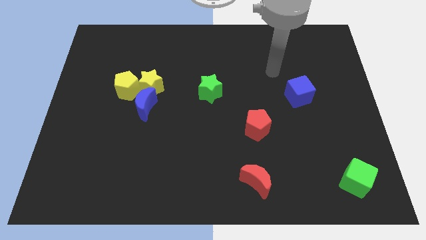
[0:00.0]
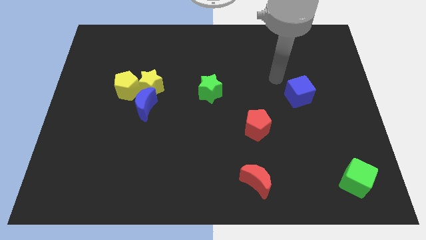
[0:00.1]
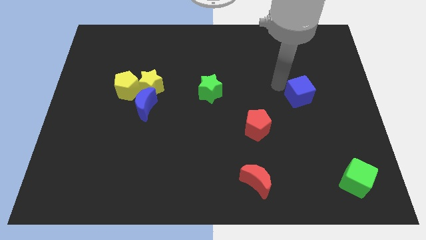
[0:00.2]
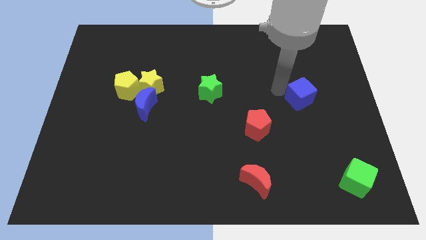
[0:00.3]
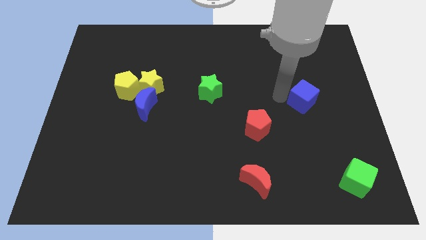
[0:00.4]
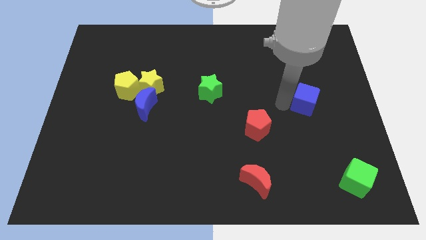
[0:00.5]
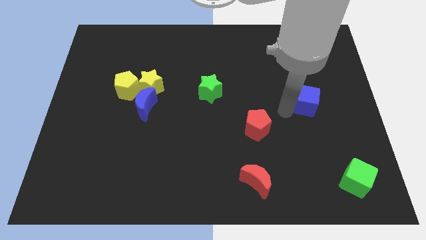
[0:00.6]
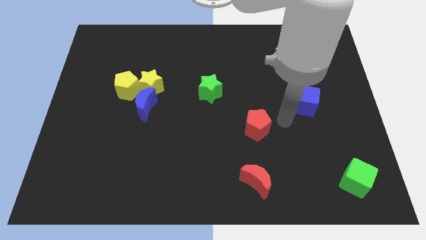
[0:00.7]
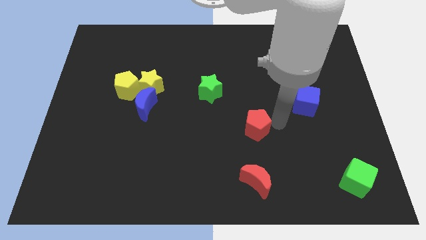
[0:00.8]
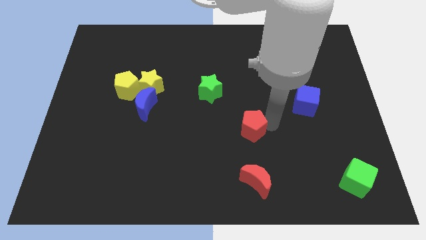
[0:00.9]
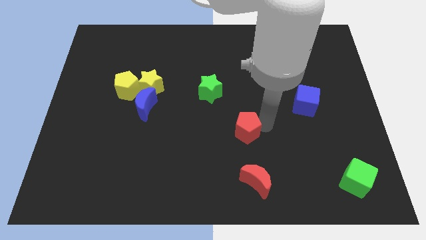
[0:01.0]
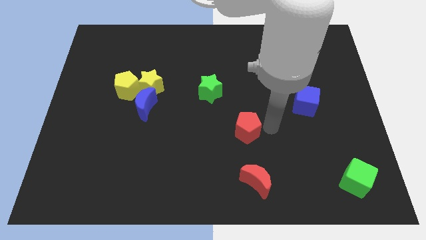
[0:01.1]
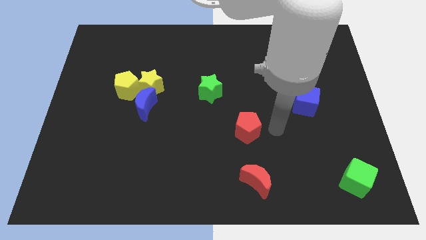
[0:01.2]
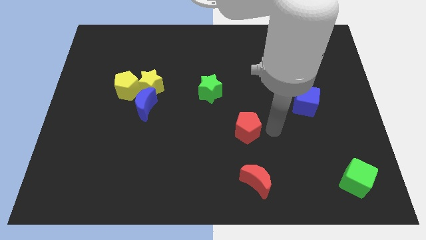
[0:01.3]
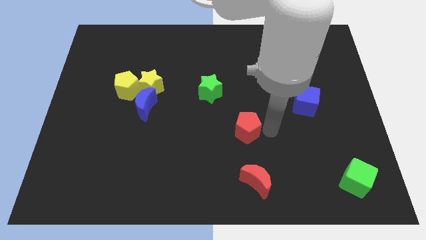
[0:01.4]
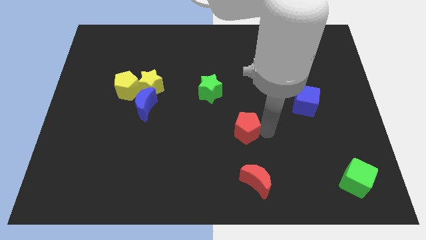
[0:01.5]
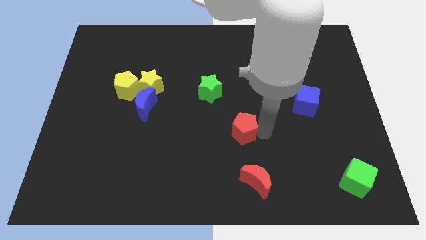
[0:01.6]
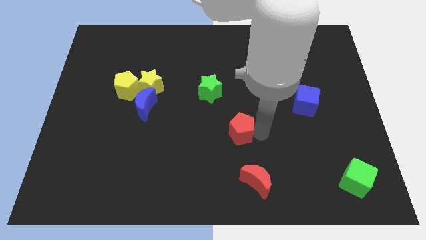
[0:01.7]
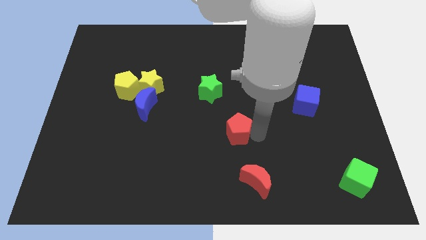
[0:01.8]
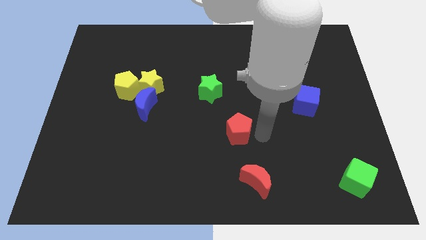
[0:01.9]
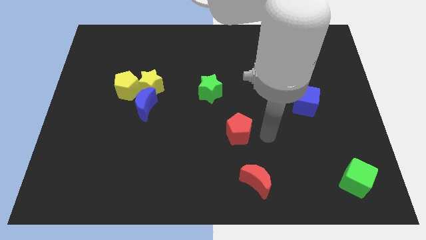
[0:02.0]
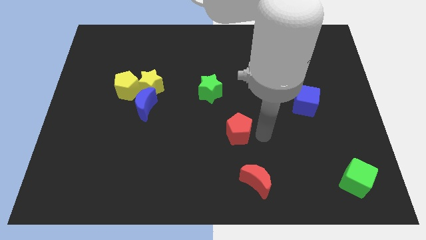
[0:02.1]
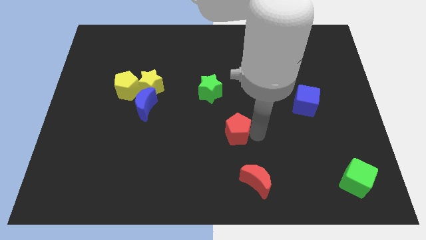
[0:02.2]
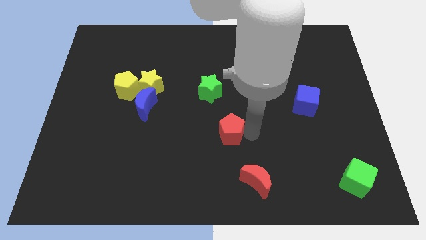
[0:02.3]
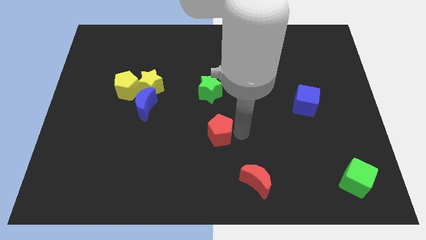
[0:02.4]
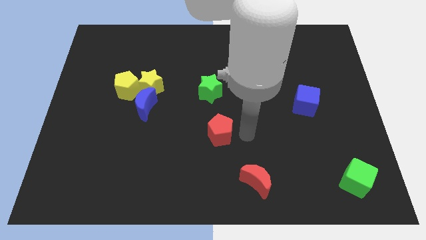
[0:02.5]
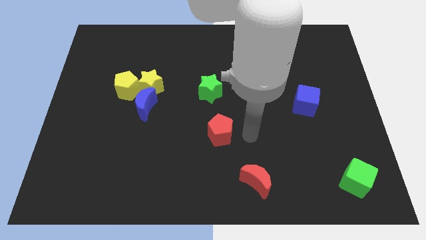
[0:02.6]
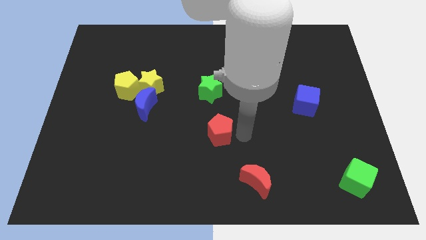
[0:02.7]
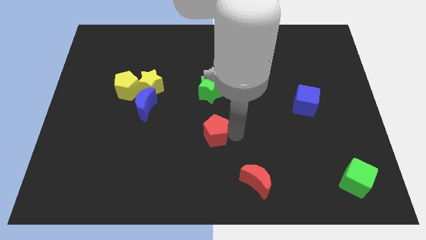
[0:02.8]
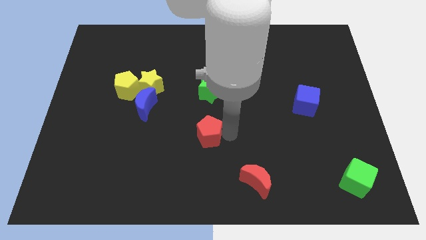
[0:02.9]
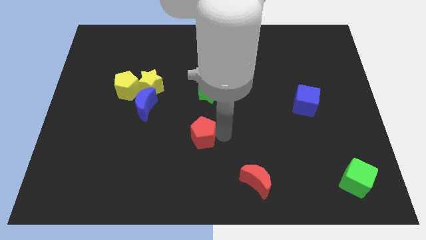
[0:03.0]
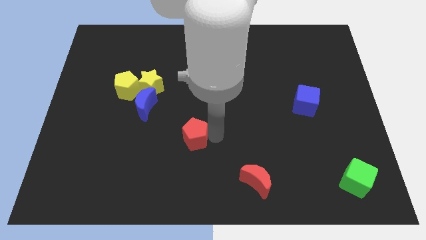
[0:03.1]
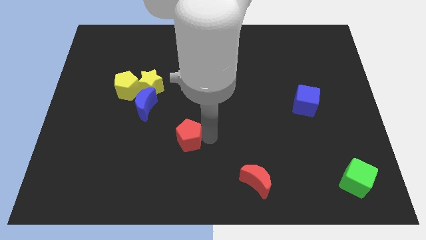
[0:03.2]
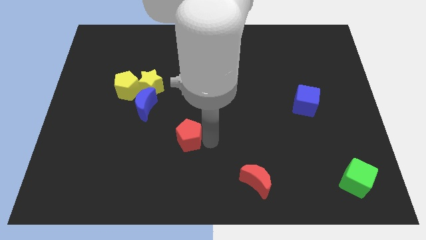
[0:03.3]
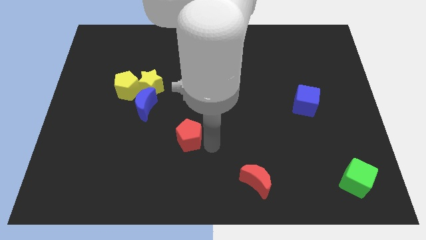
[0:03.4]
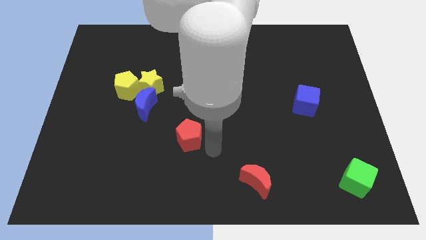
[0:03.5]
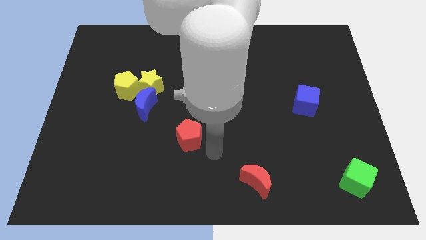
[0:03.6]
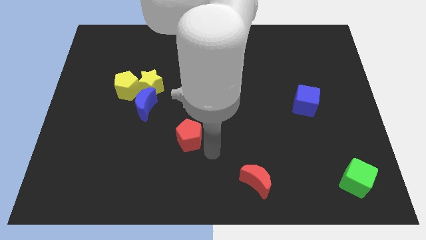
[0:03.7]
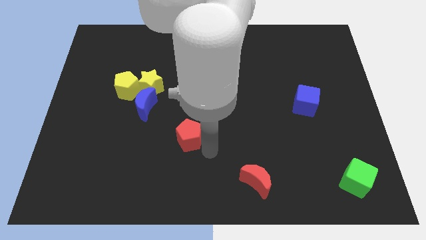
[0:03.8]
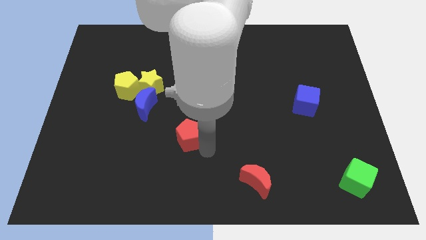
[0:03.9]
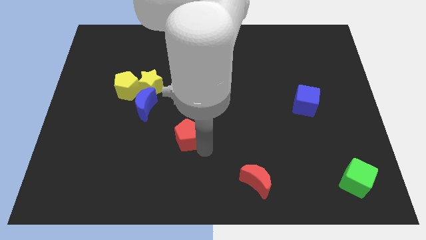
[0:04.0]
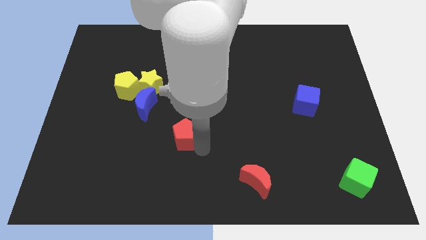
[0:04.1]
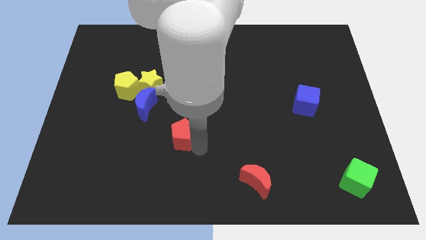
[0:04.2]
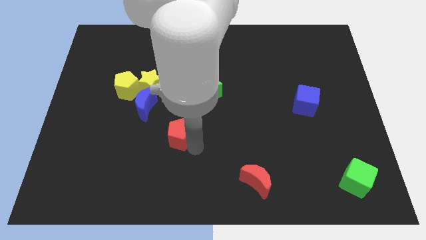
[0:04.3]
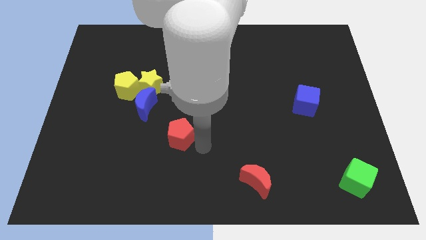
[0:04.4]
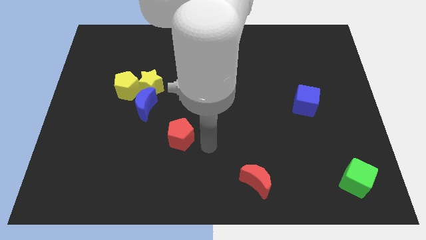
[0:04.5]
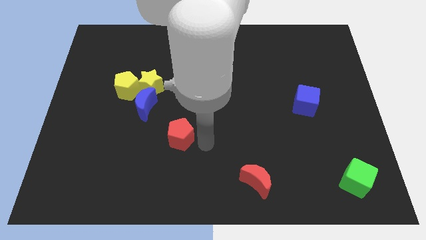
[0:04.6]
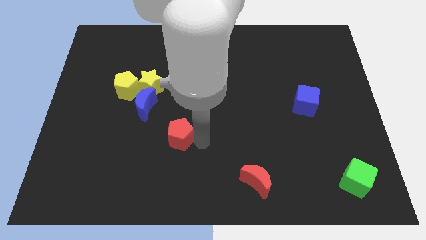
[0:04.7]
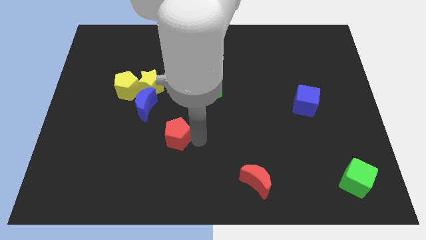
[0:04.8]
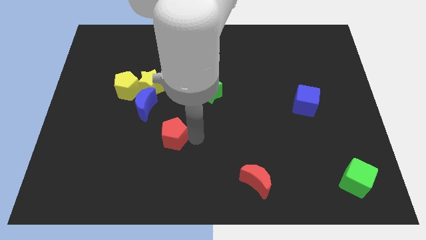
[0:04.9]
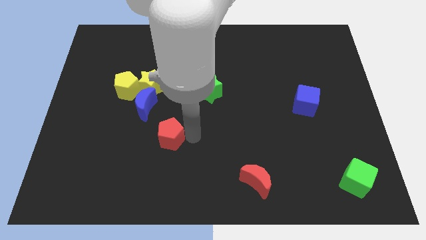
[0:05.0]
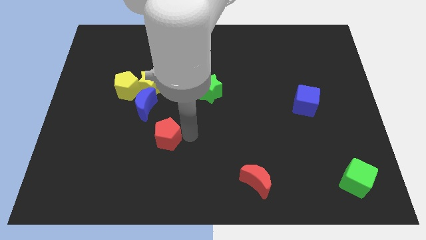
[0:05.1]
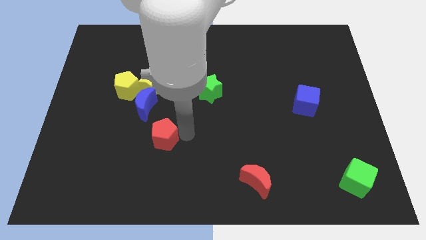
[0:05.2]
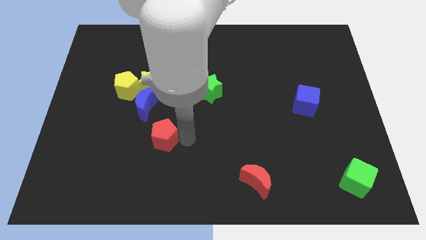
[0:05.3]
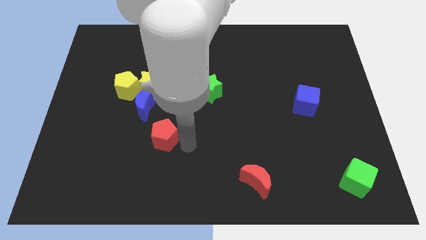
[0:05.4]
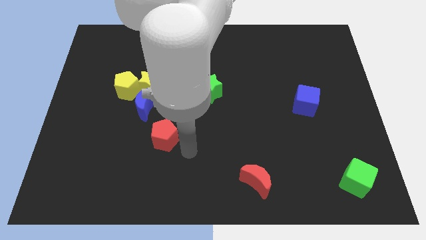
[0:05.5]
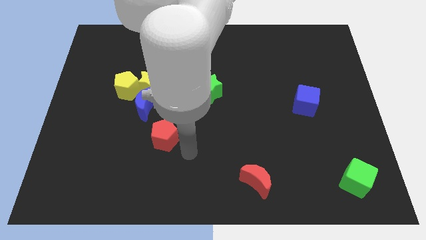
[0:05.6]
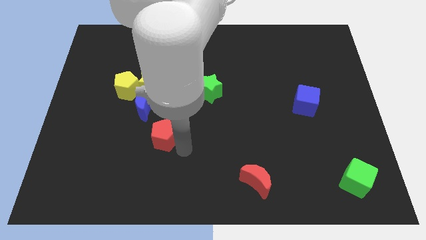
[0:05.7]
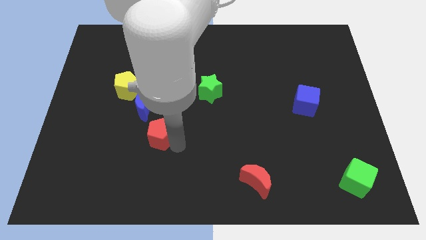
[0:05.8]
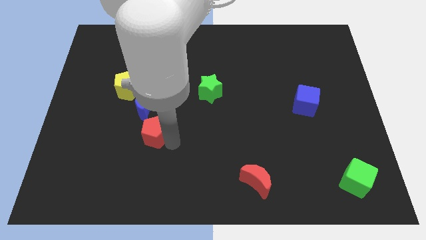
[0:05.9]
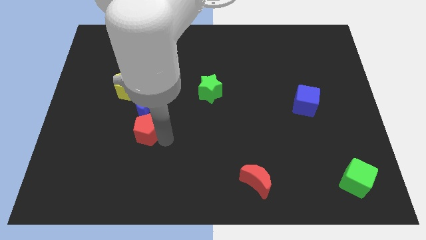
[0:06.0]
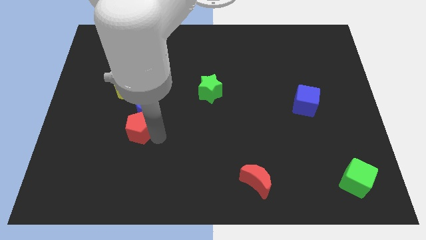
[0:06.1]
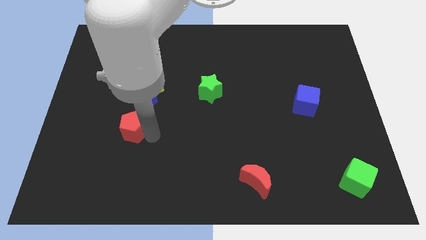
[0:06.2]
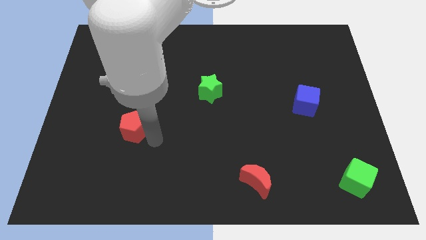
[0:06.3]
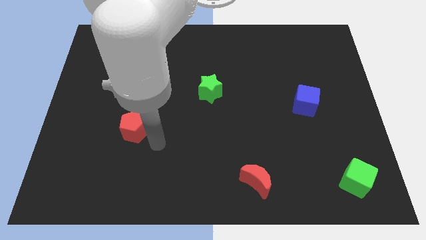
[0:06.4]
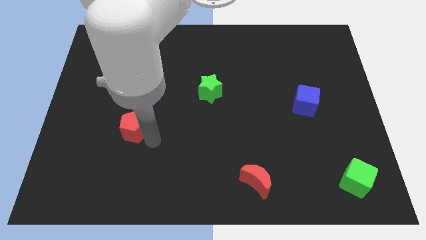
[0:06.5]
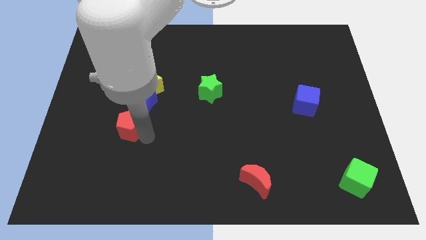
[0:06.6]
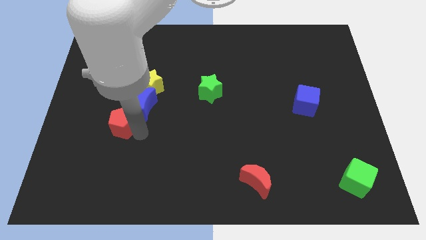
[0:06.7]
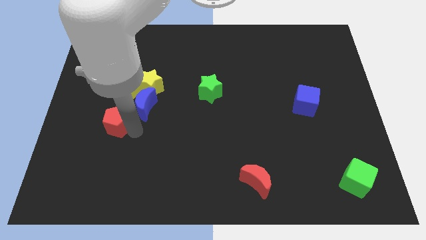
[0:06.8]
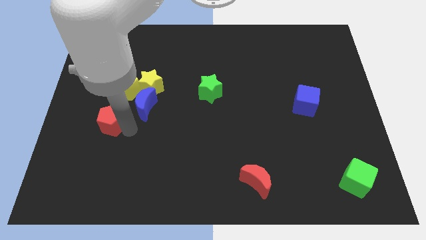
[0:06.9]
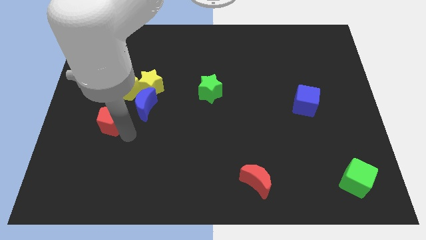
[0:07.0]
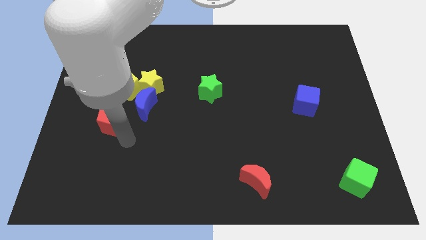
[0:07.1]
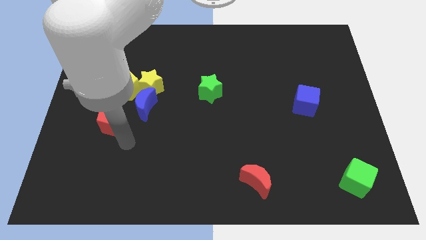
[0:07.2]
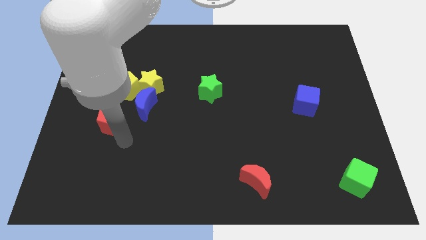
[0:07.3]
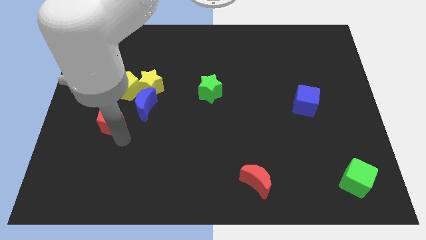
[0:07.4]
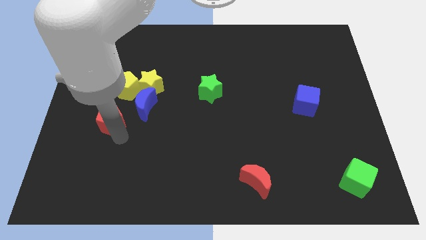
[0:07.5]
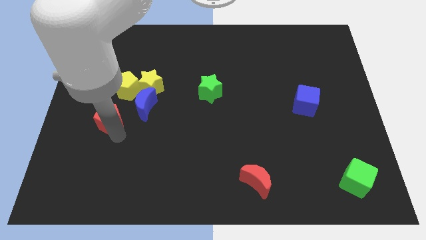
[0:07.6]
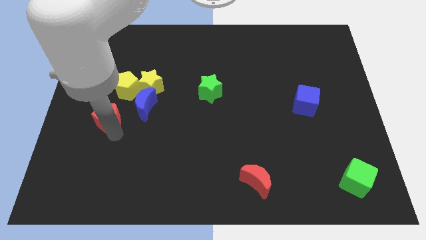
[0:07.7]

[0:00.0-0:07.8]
put the red pentagon to the bottom left of the yellow pentagon
